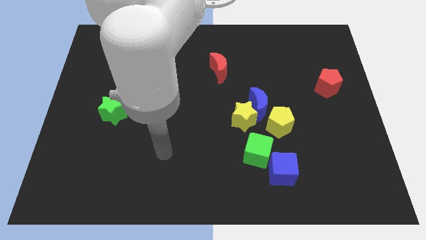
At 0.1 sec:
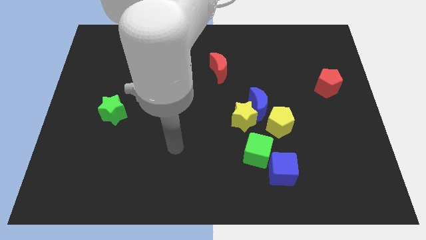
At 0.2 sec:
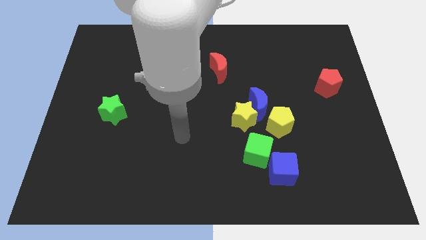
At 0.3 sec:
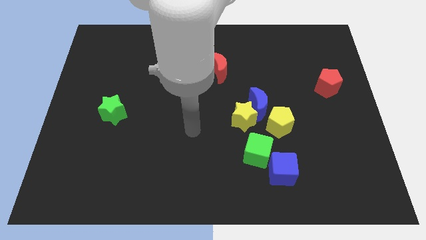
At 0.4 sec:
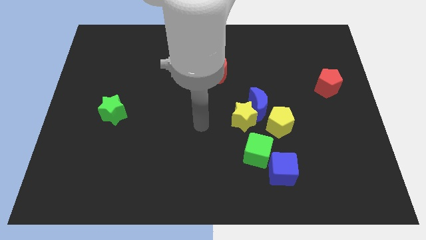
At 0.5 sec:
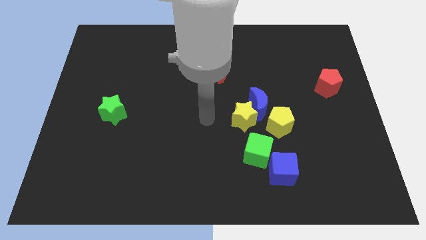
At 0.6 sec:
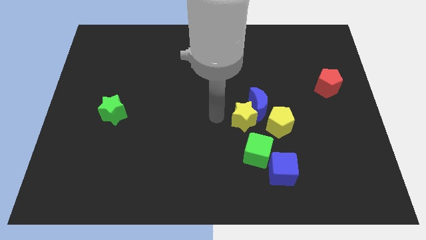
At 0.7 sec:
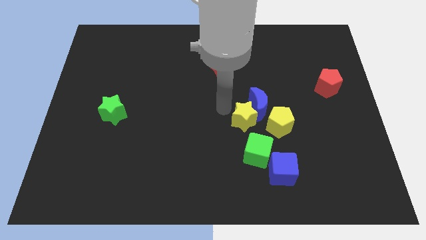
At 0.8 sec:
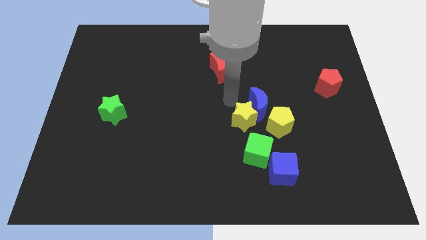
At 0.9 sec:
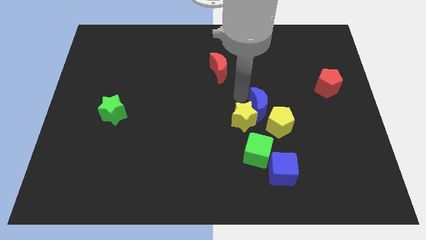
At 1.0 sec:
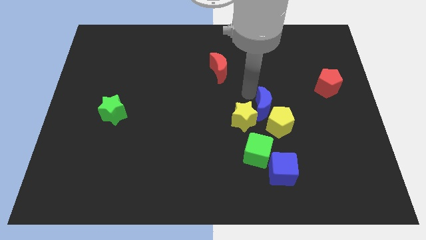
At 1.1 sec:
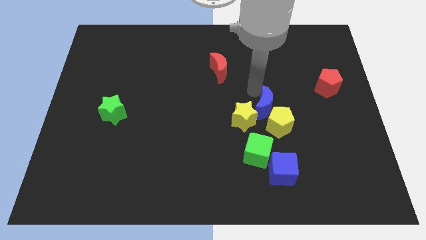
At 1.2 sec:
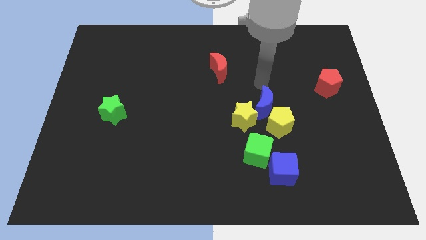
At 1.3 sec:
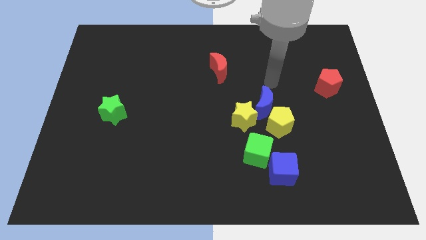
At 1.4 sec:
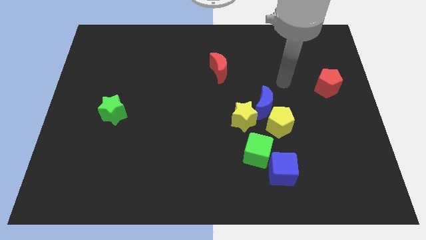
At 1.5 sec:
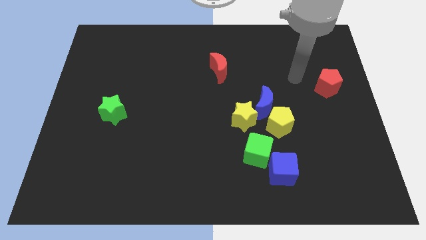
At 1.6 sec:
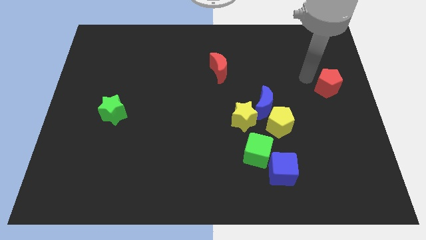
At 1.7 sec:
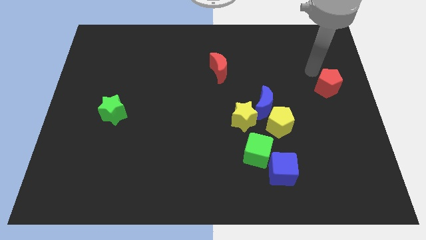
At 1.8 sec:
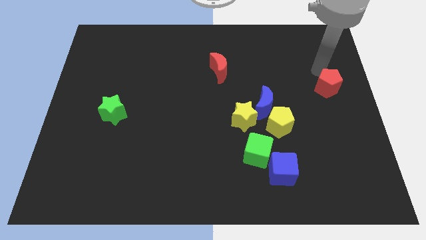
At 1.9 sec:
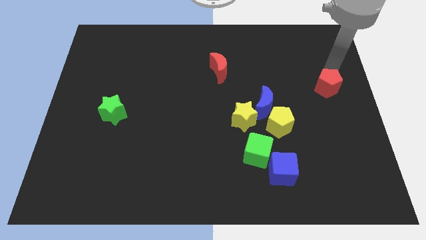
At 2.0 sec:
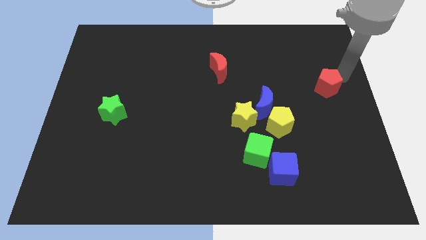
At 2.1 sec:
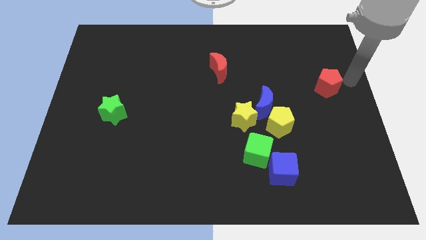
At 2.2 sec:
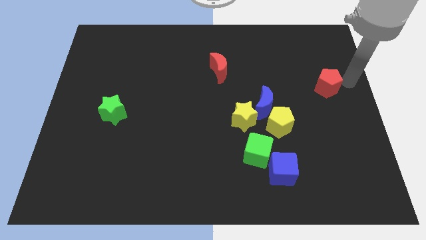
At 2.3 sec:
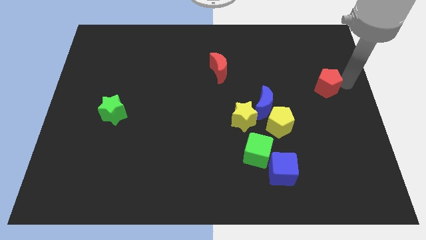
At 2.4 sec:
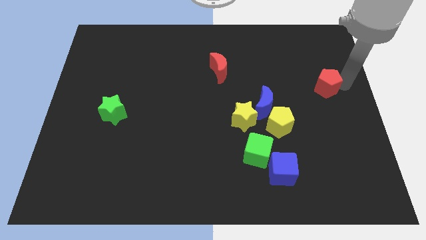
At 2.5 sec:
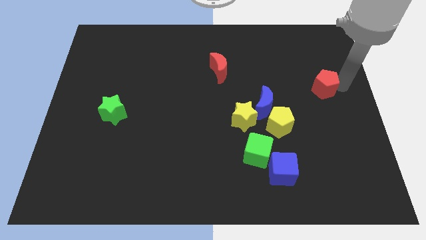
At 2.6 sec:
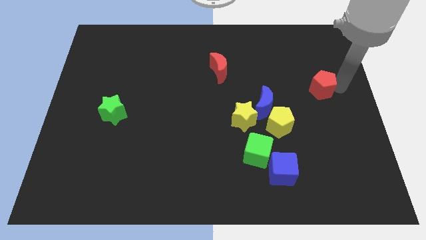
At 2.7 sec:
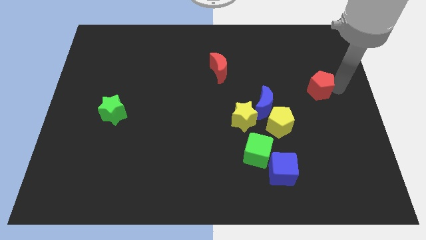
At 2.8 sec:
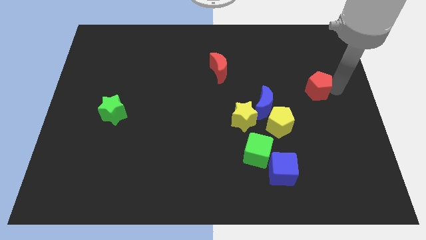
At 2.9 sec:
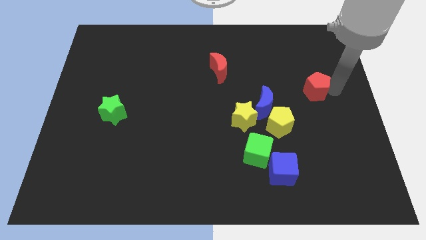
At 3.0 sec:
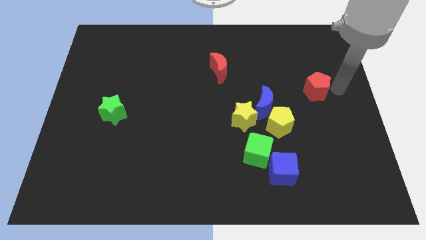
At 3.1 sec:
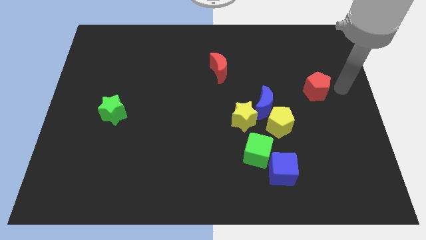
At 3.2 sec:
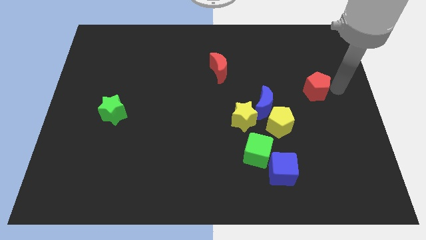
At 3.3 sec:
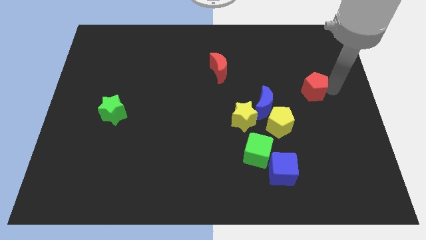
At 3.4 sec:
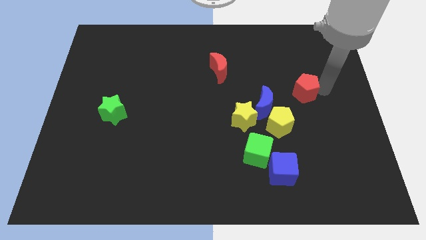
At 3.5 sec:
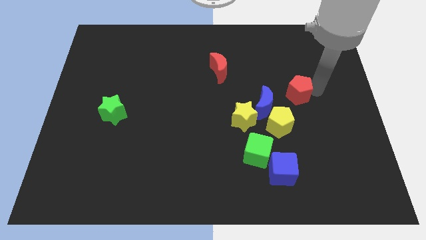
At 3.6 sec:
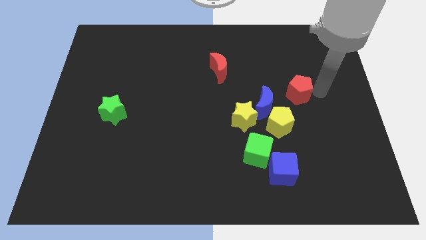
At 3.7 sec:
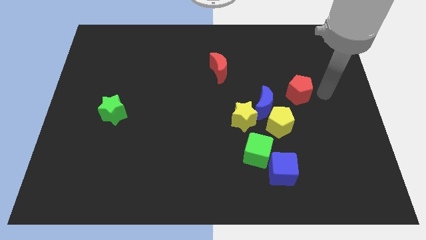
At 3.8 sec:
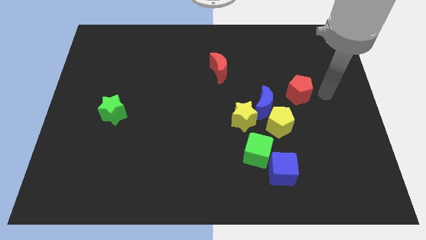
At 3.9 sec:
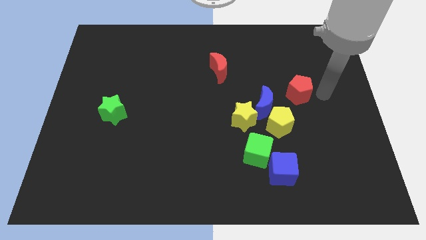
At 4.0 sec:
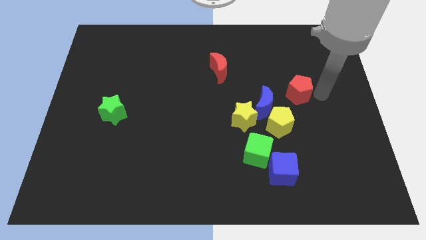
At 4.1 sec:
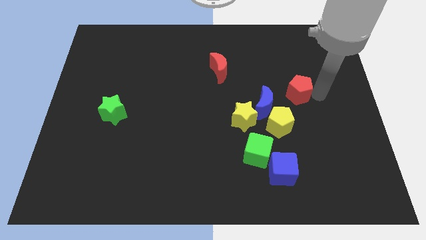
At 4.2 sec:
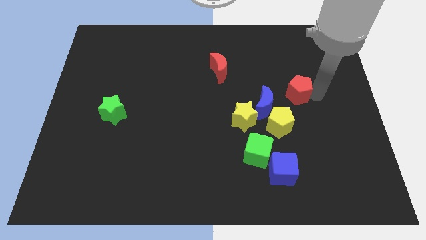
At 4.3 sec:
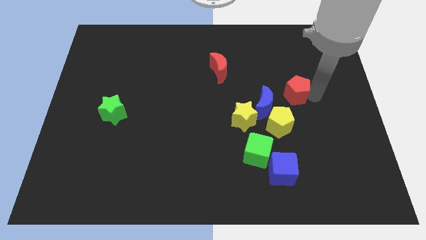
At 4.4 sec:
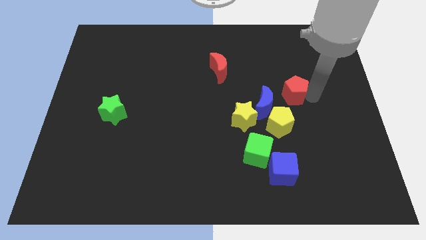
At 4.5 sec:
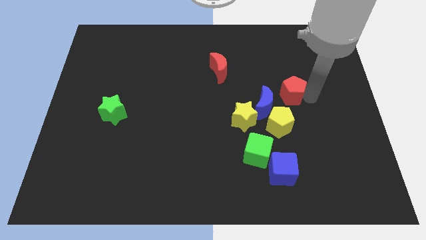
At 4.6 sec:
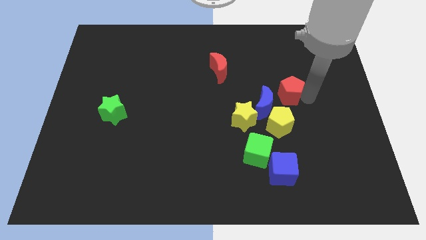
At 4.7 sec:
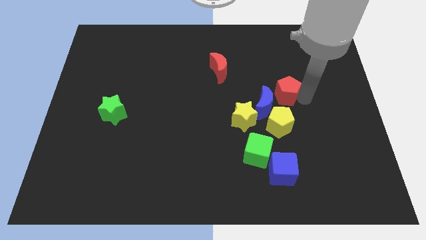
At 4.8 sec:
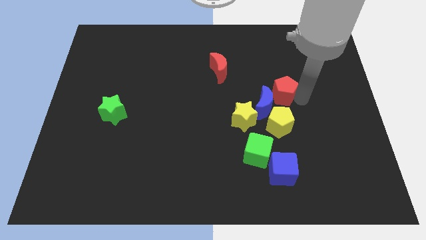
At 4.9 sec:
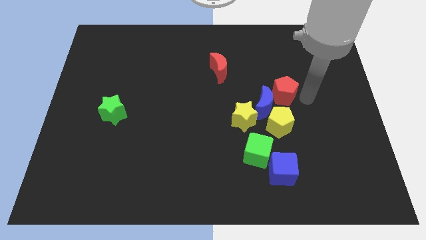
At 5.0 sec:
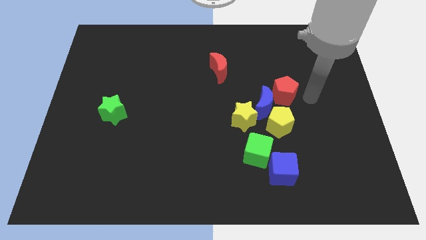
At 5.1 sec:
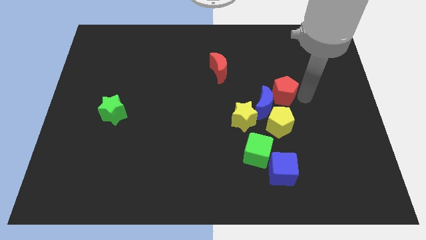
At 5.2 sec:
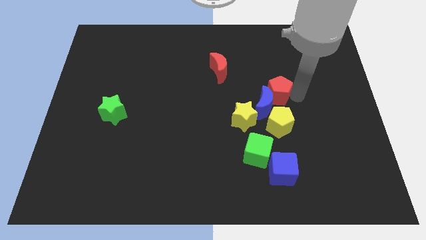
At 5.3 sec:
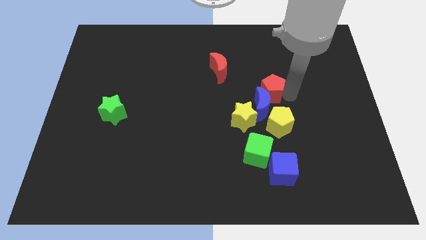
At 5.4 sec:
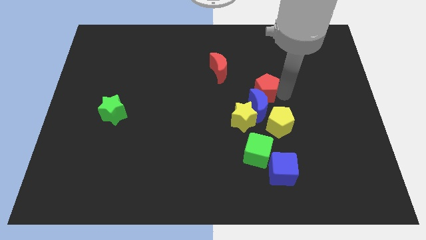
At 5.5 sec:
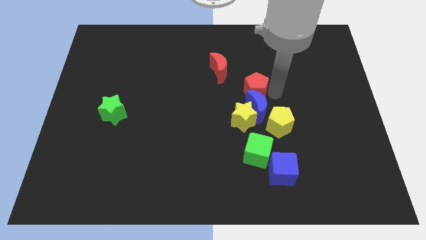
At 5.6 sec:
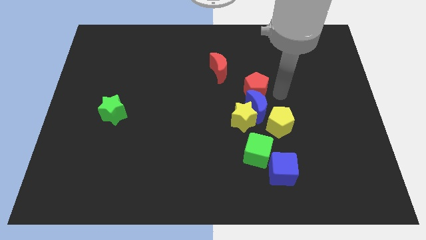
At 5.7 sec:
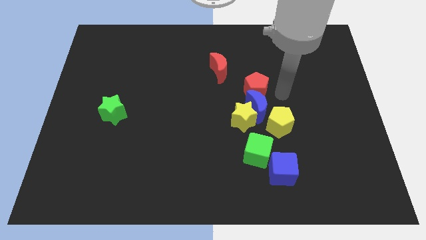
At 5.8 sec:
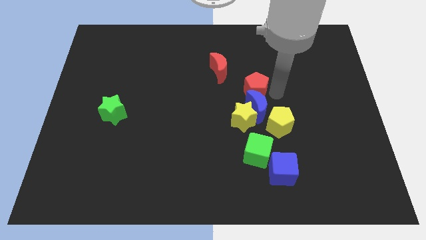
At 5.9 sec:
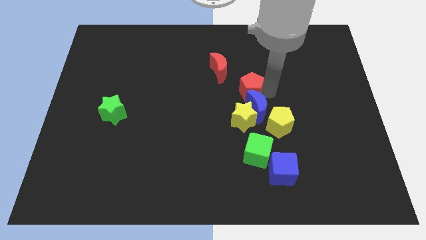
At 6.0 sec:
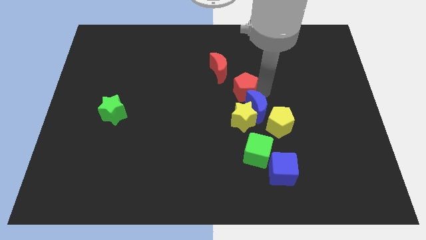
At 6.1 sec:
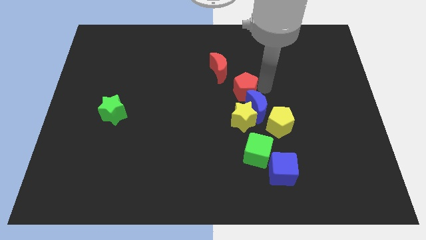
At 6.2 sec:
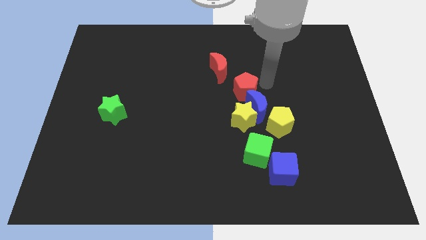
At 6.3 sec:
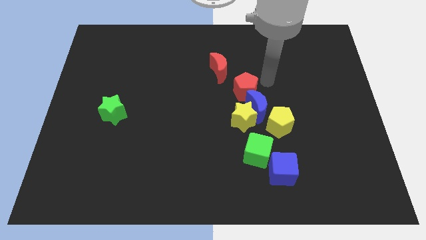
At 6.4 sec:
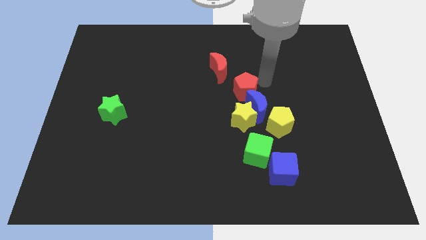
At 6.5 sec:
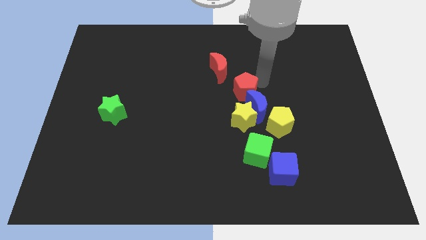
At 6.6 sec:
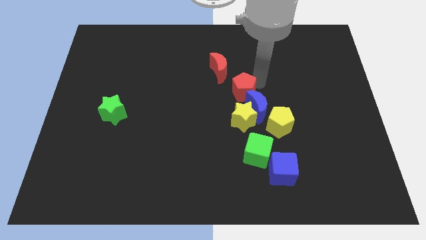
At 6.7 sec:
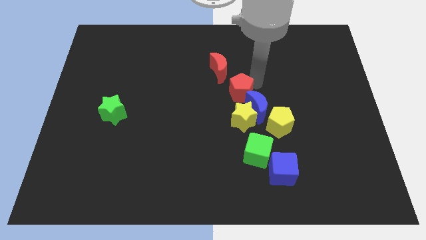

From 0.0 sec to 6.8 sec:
slide the red pentagon below the red moon

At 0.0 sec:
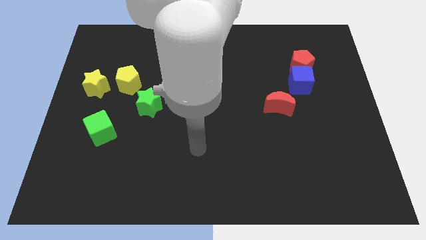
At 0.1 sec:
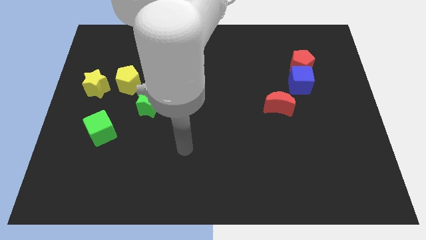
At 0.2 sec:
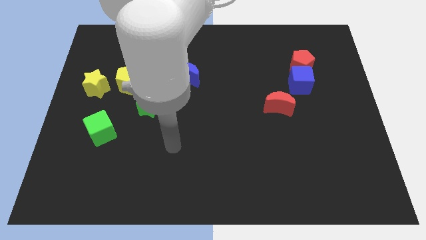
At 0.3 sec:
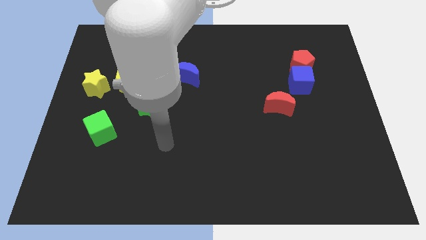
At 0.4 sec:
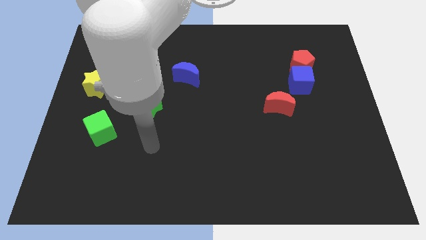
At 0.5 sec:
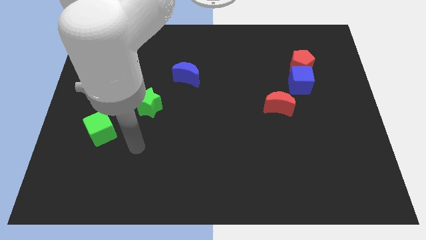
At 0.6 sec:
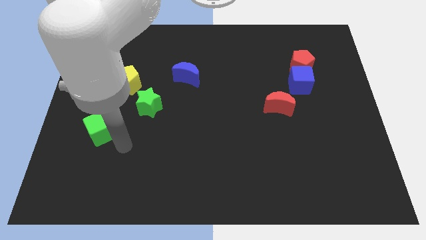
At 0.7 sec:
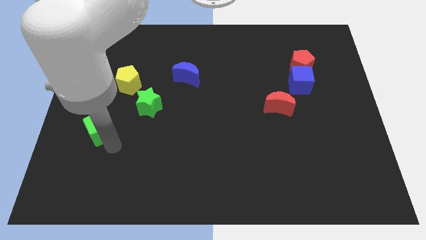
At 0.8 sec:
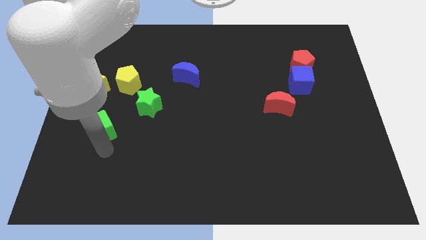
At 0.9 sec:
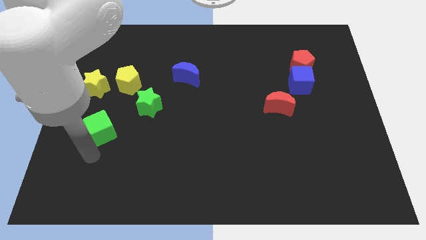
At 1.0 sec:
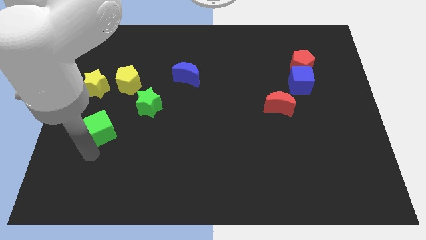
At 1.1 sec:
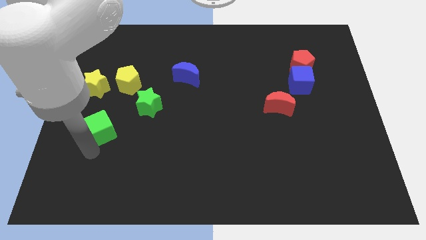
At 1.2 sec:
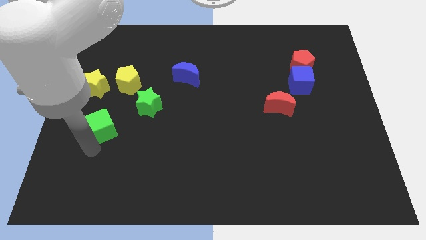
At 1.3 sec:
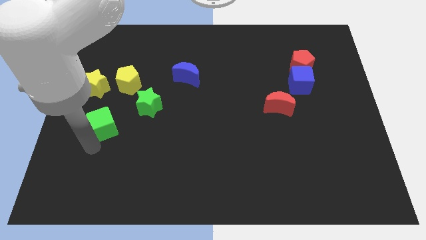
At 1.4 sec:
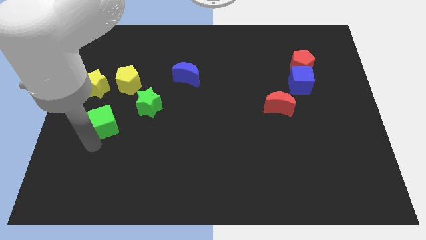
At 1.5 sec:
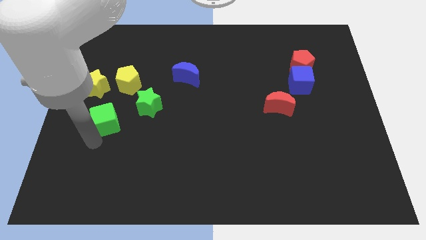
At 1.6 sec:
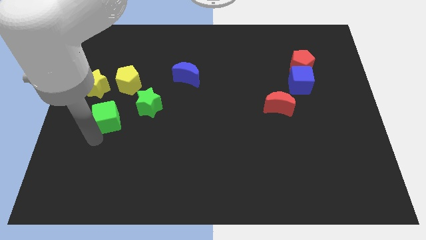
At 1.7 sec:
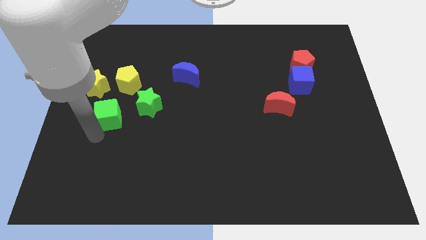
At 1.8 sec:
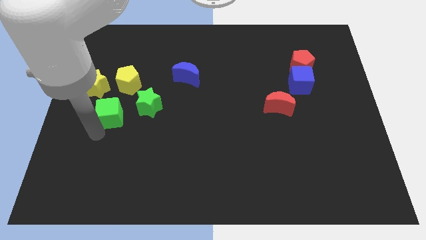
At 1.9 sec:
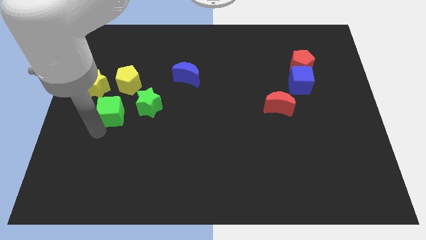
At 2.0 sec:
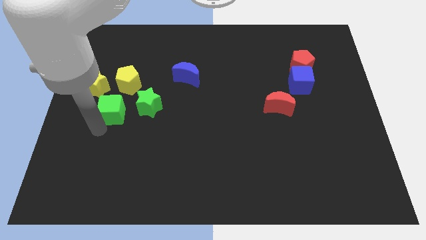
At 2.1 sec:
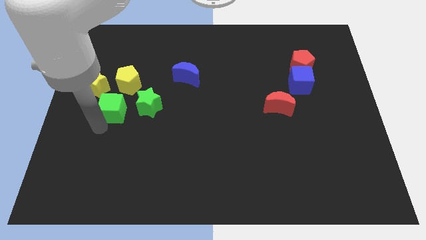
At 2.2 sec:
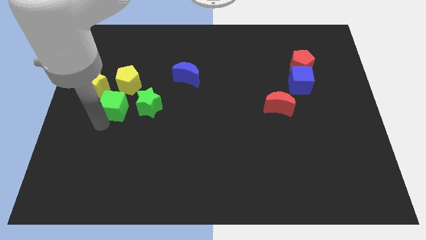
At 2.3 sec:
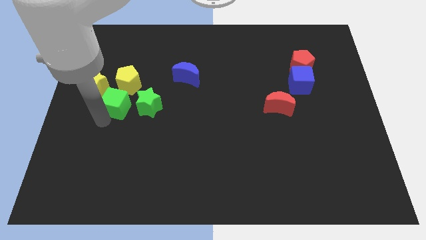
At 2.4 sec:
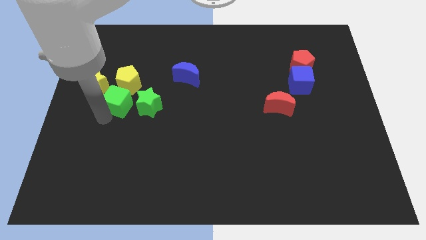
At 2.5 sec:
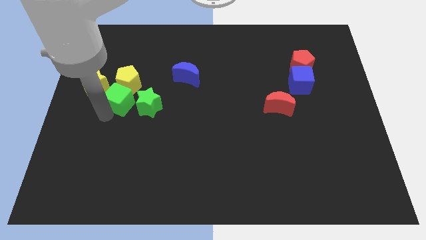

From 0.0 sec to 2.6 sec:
put the green cube right of the yellow star
